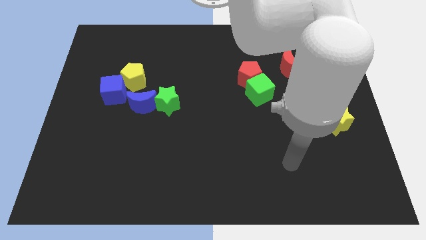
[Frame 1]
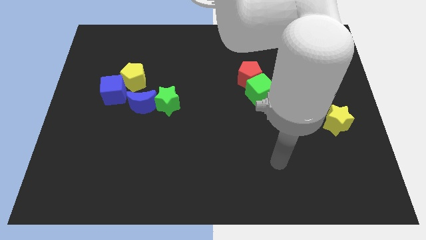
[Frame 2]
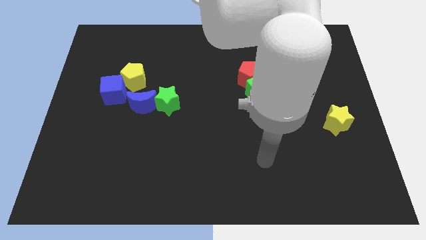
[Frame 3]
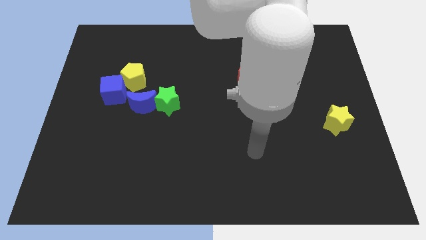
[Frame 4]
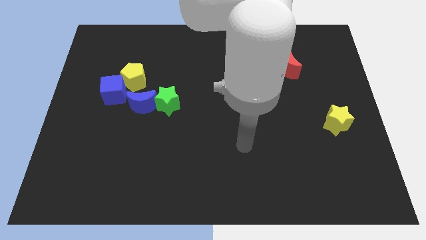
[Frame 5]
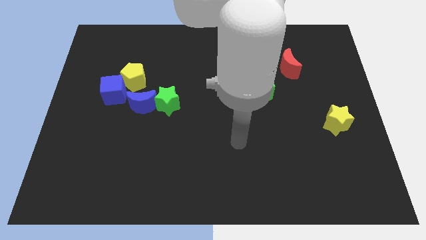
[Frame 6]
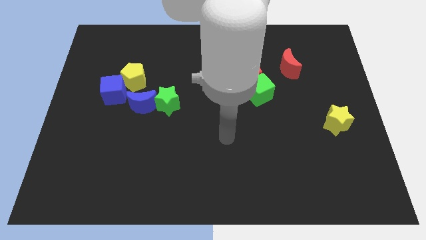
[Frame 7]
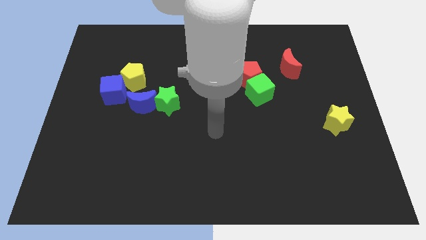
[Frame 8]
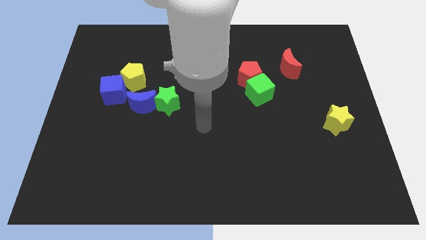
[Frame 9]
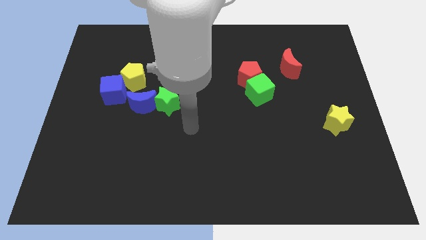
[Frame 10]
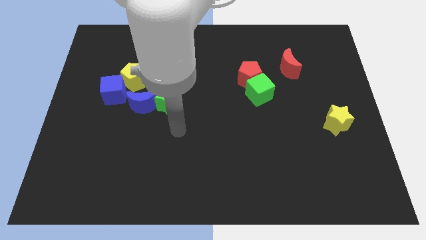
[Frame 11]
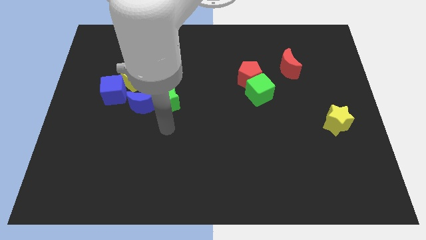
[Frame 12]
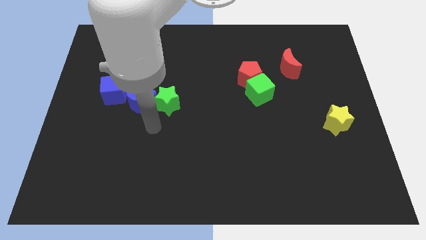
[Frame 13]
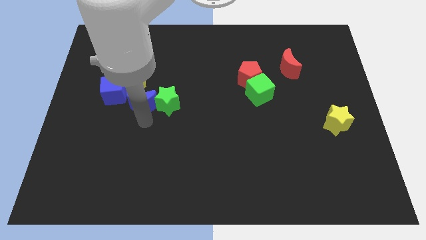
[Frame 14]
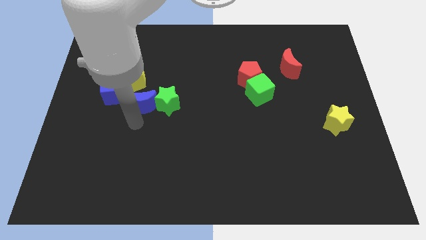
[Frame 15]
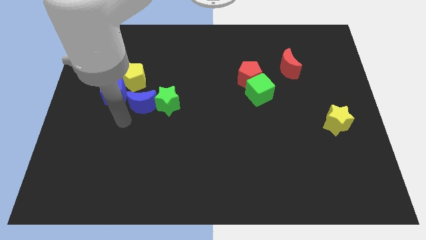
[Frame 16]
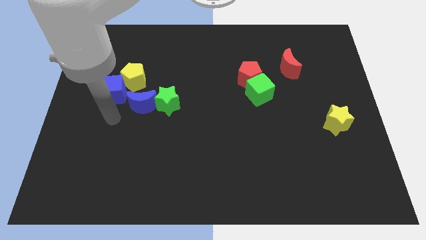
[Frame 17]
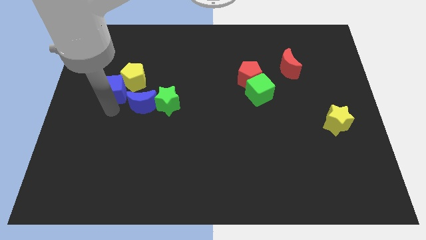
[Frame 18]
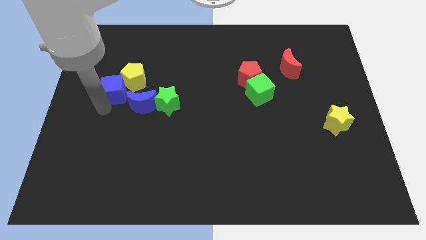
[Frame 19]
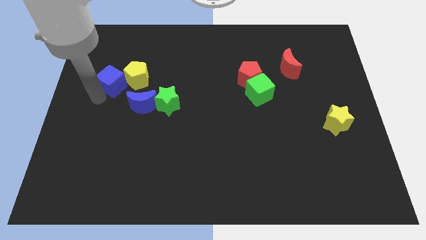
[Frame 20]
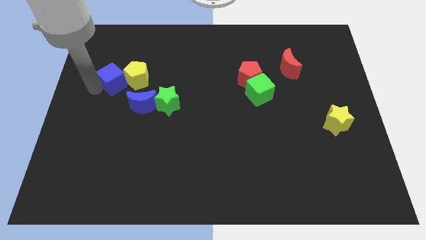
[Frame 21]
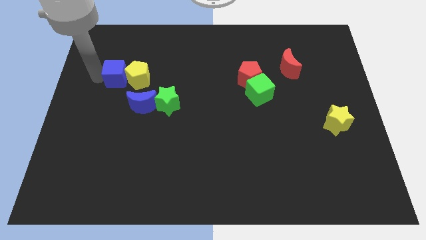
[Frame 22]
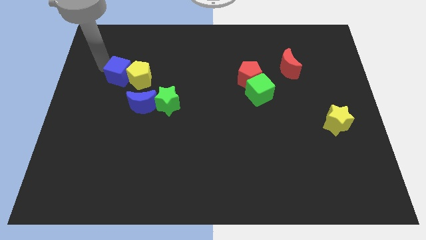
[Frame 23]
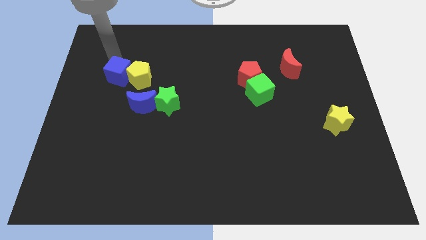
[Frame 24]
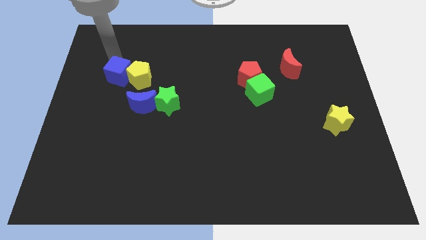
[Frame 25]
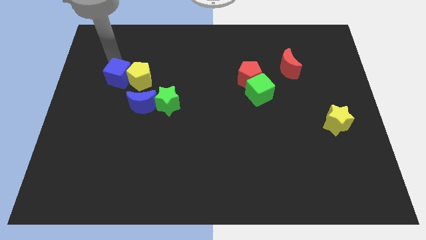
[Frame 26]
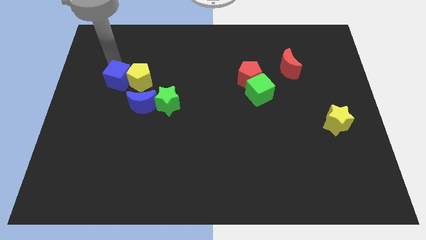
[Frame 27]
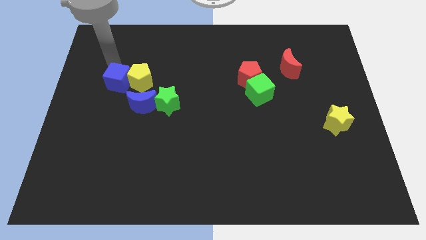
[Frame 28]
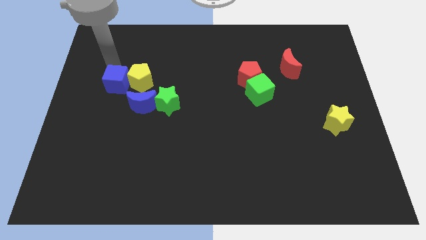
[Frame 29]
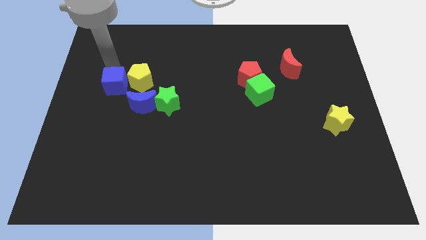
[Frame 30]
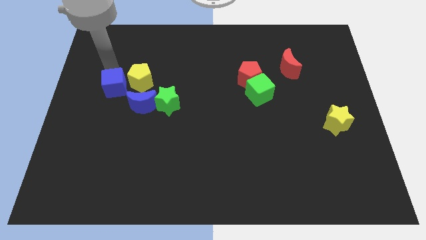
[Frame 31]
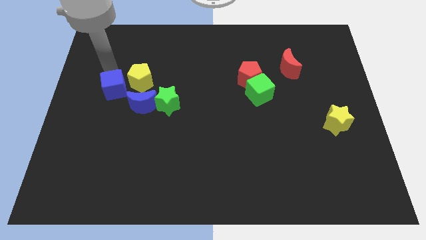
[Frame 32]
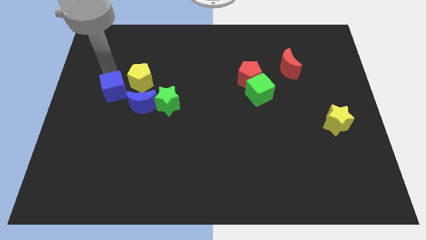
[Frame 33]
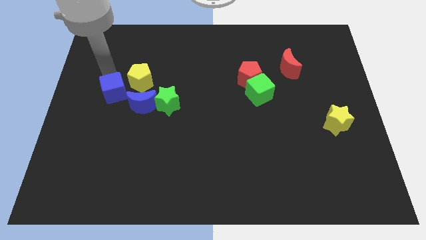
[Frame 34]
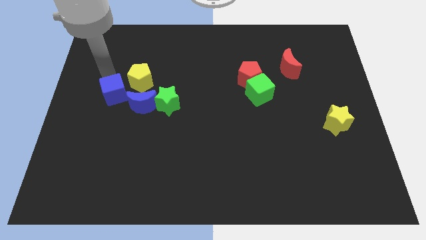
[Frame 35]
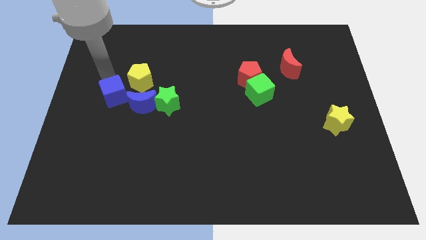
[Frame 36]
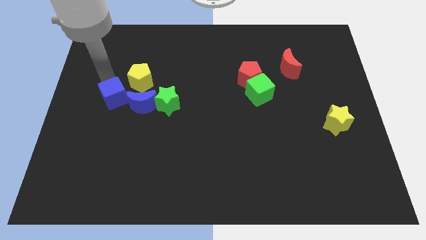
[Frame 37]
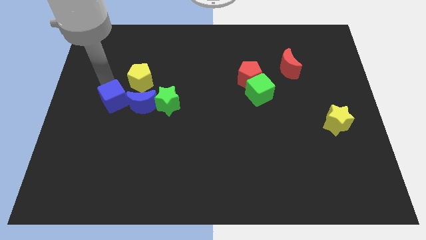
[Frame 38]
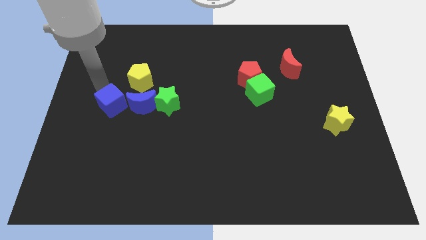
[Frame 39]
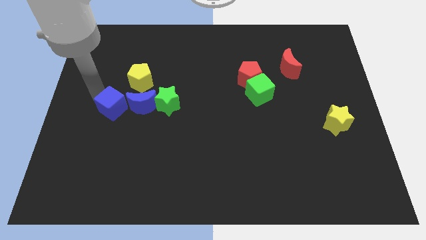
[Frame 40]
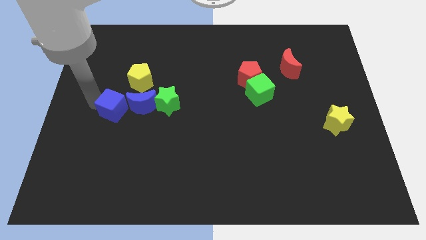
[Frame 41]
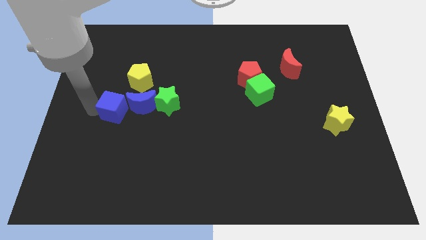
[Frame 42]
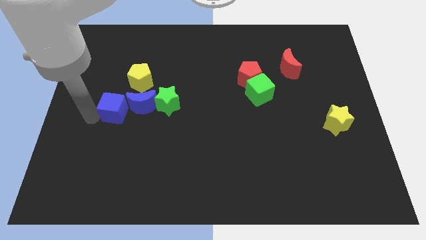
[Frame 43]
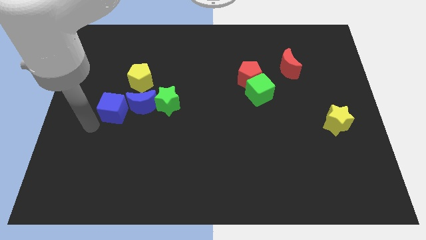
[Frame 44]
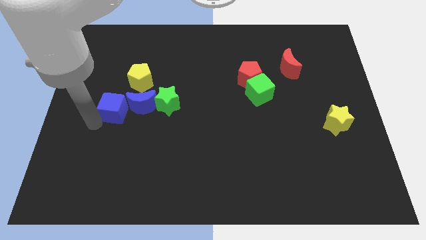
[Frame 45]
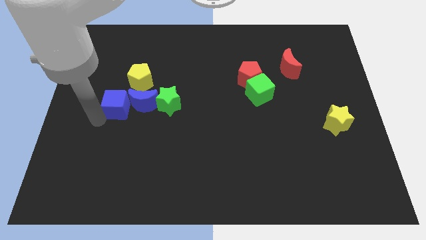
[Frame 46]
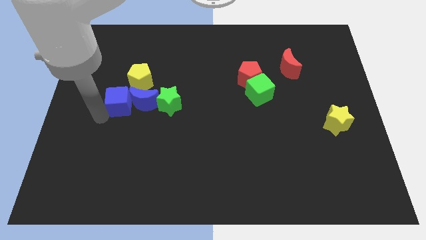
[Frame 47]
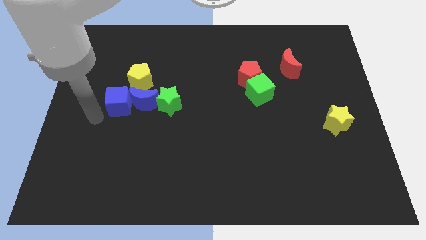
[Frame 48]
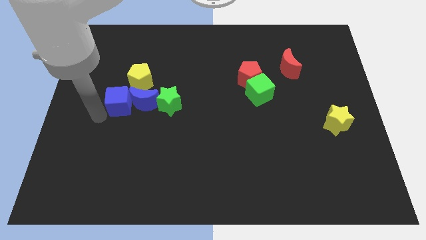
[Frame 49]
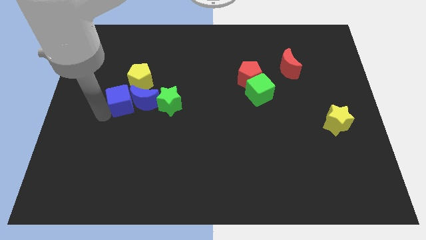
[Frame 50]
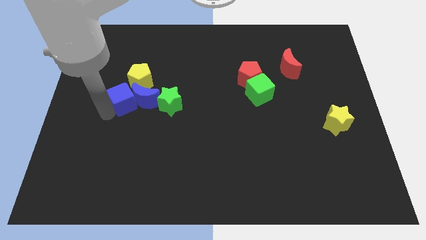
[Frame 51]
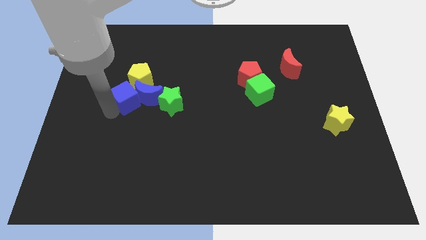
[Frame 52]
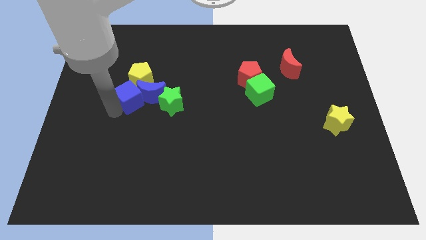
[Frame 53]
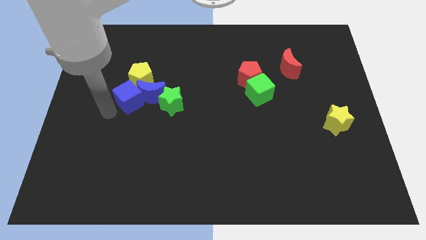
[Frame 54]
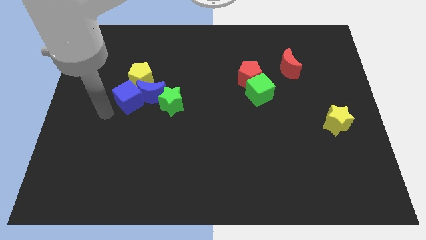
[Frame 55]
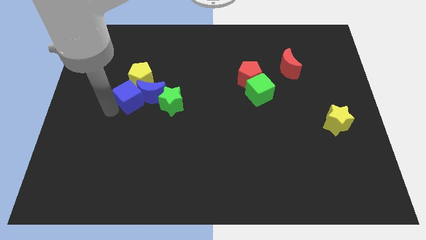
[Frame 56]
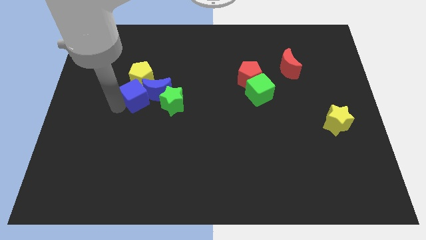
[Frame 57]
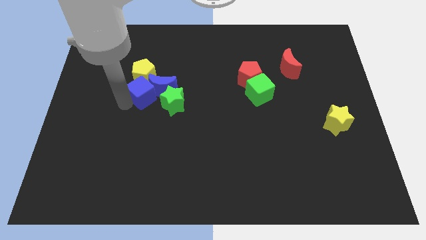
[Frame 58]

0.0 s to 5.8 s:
slide the blue cube diagonally up and to the left of the green star

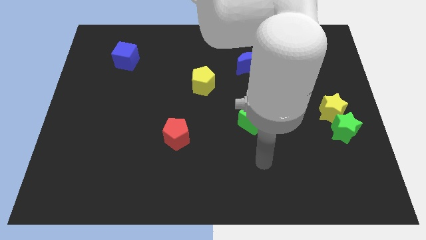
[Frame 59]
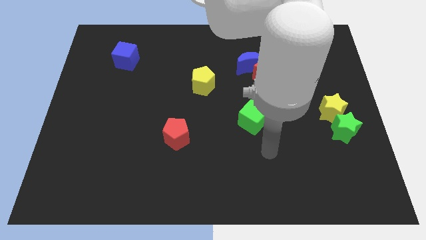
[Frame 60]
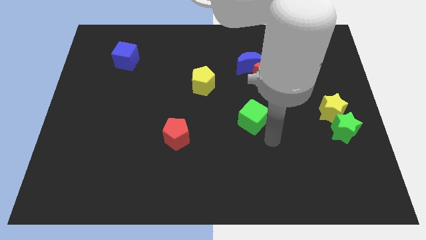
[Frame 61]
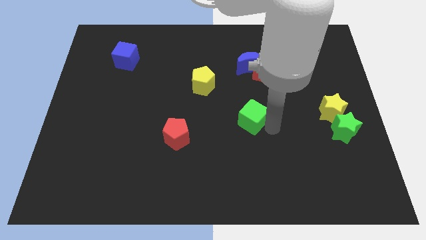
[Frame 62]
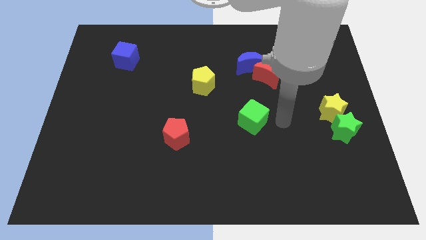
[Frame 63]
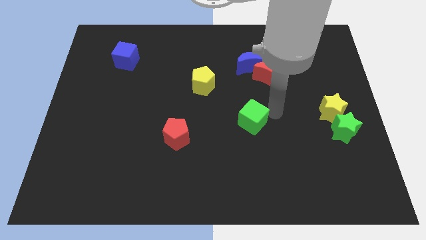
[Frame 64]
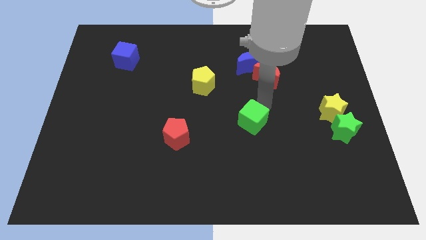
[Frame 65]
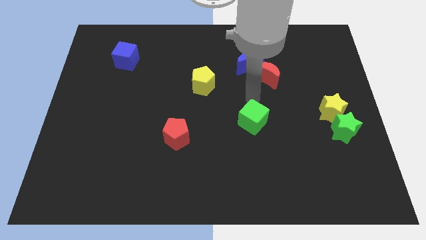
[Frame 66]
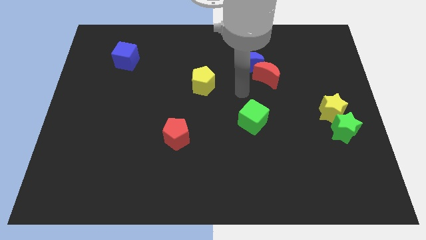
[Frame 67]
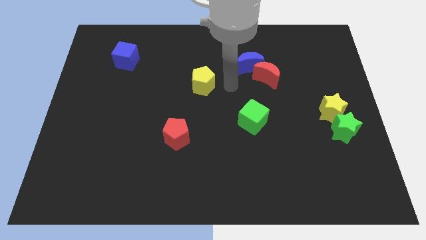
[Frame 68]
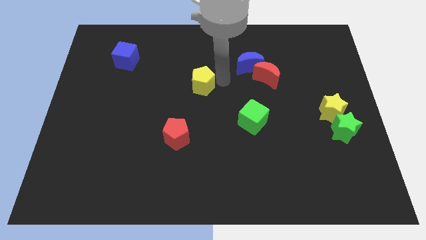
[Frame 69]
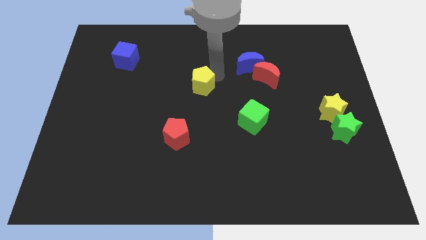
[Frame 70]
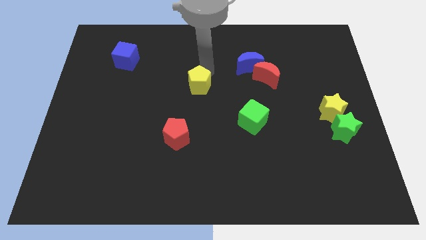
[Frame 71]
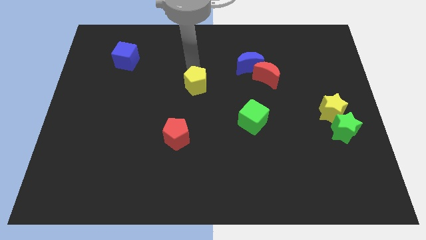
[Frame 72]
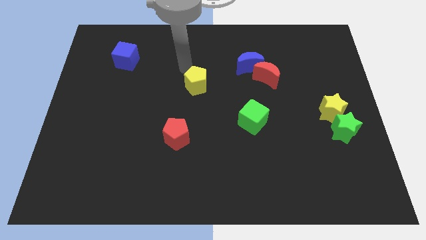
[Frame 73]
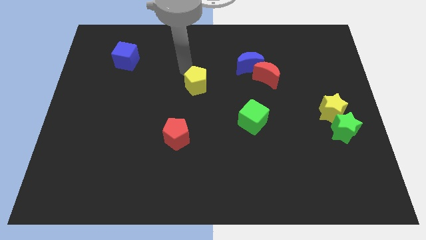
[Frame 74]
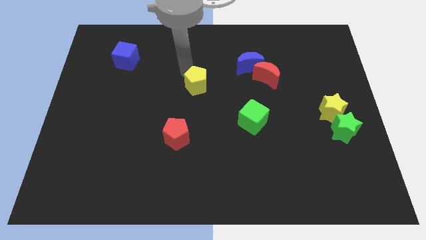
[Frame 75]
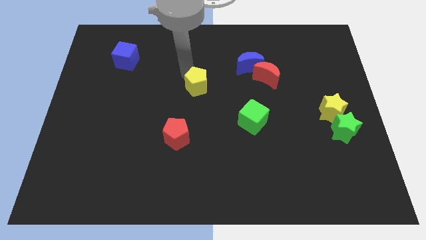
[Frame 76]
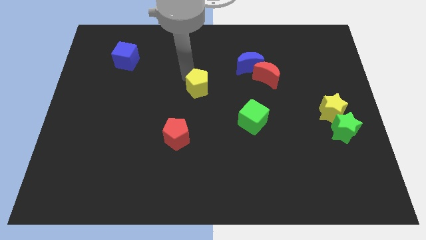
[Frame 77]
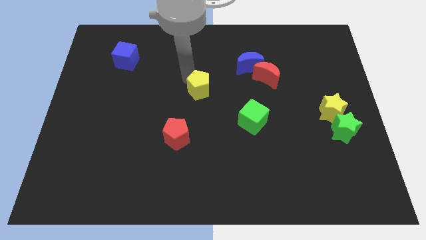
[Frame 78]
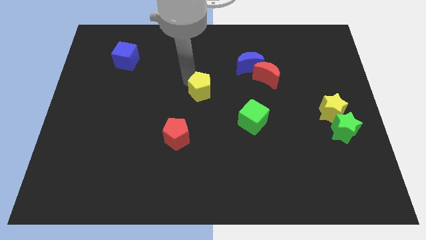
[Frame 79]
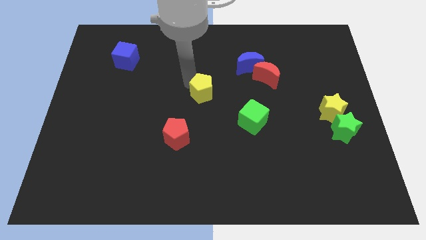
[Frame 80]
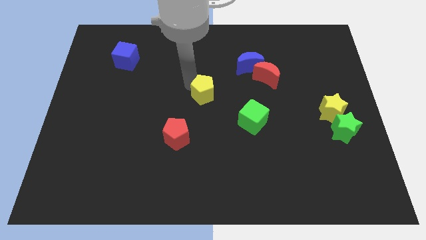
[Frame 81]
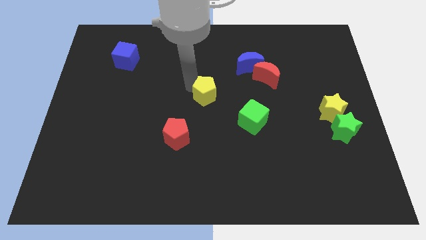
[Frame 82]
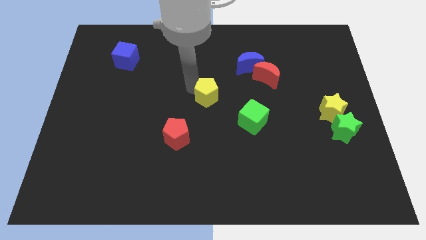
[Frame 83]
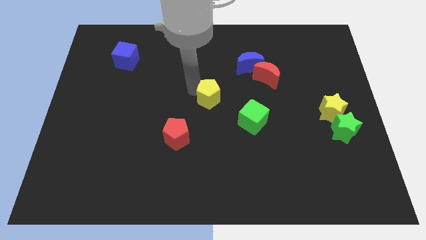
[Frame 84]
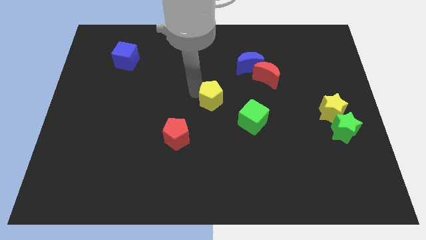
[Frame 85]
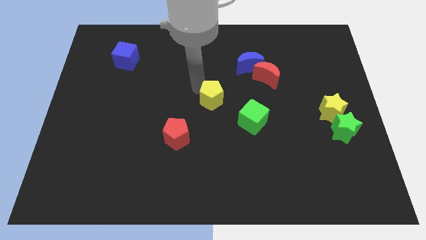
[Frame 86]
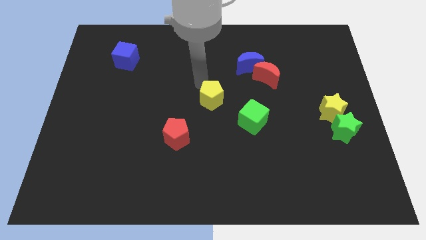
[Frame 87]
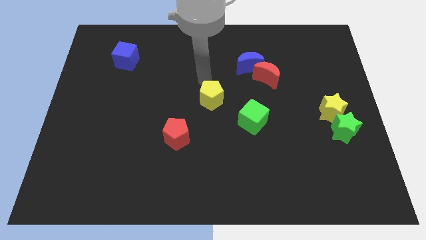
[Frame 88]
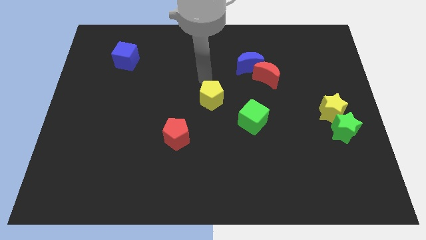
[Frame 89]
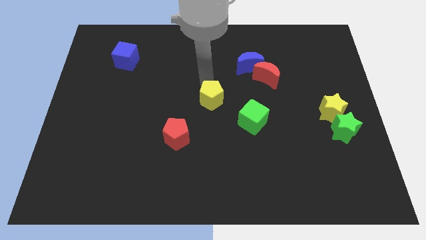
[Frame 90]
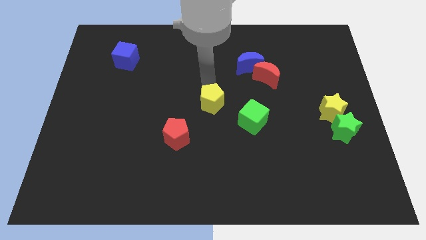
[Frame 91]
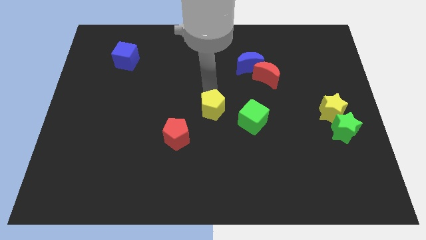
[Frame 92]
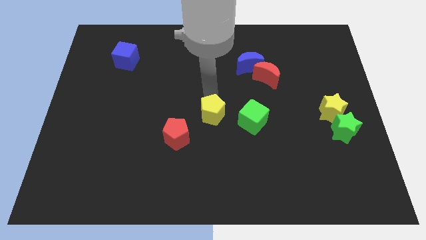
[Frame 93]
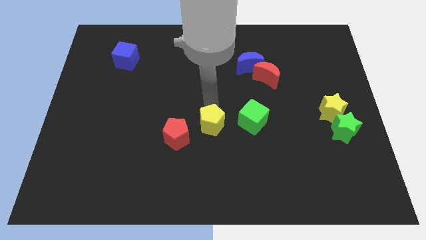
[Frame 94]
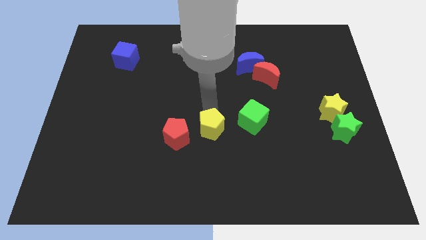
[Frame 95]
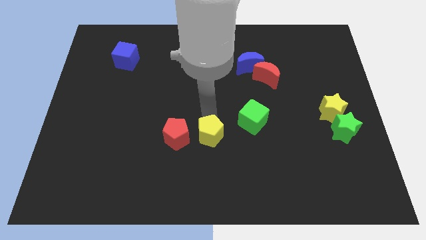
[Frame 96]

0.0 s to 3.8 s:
move the yellow pentagon to the bottom left of the green cube
